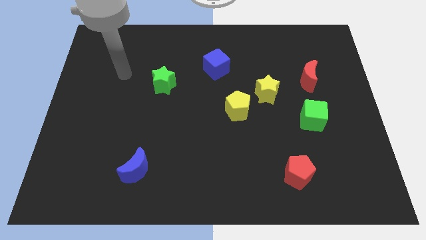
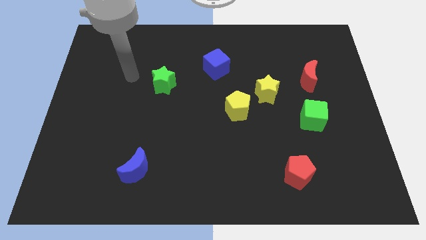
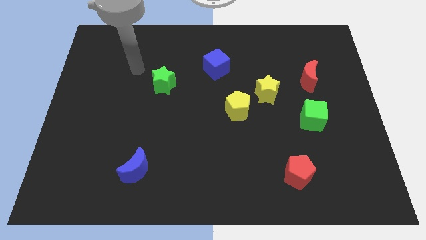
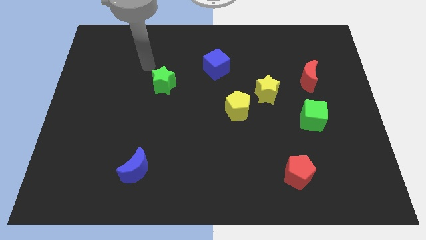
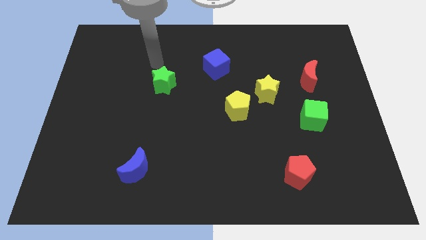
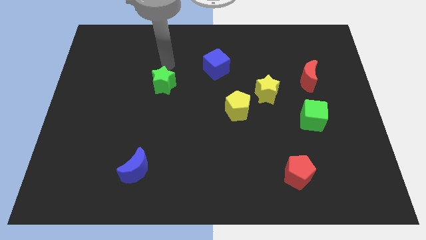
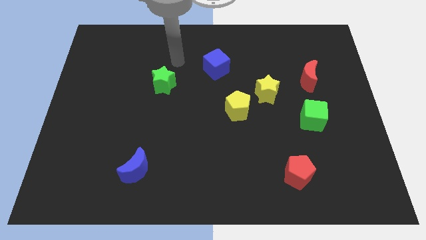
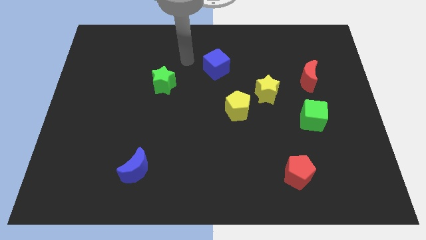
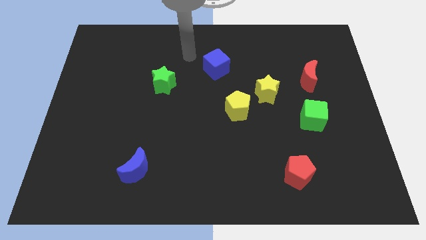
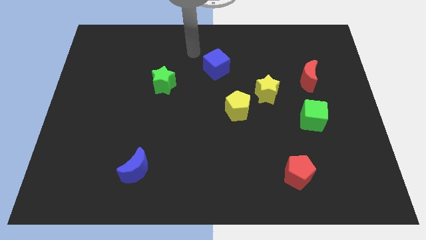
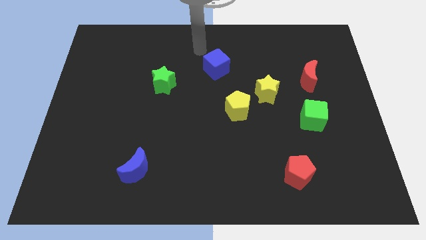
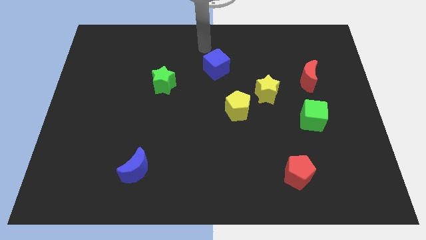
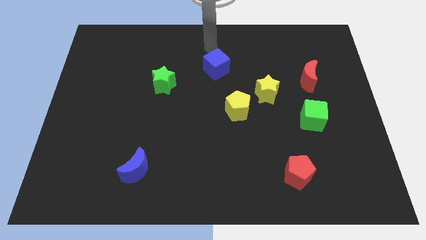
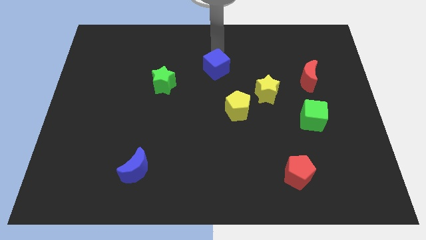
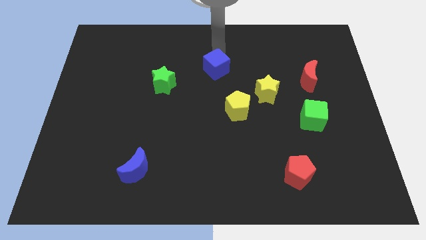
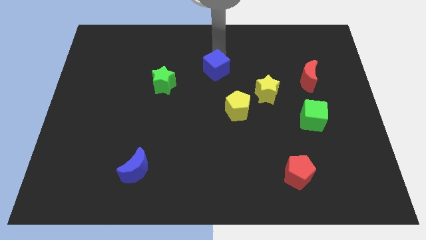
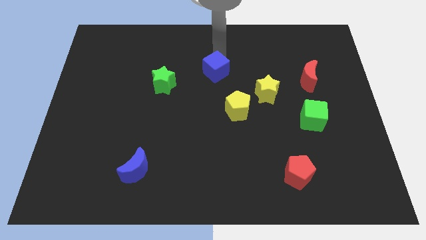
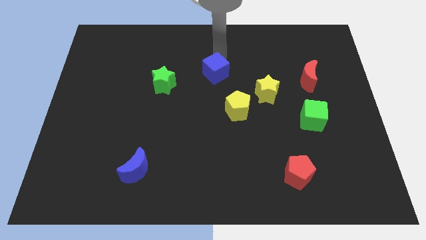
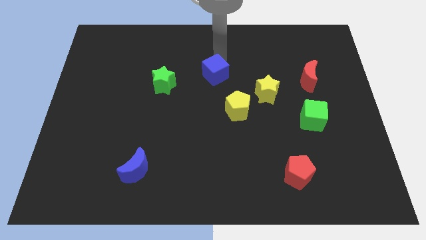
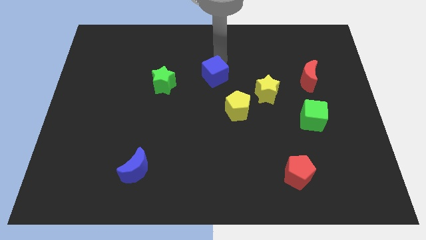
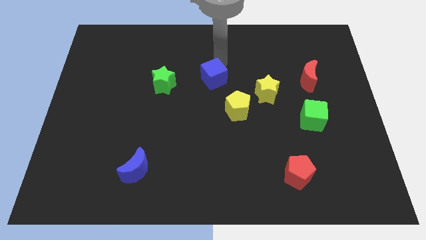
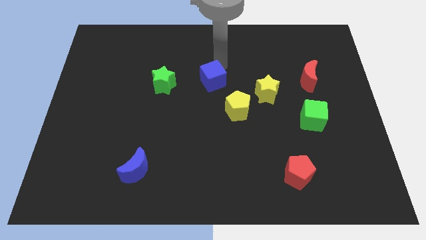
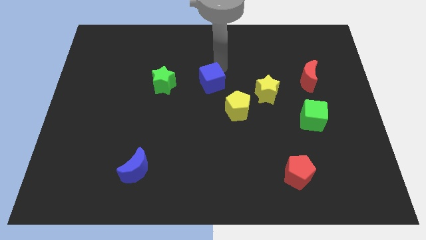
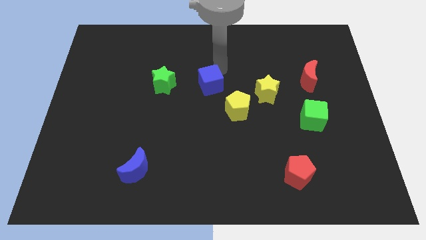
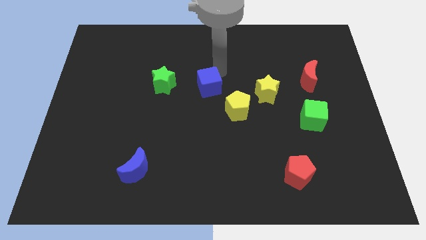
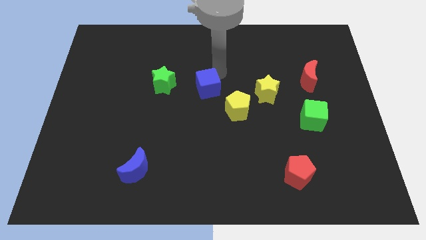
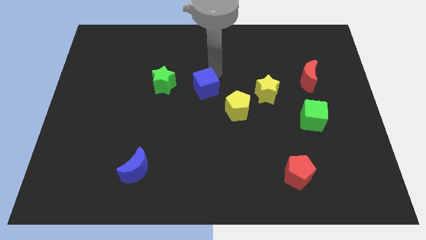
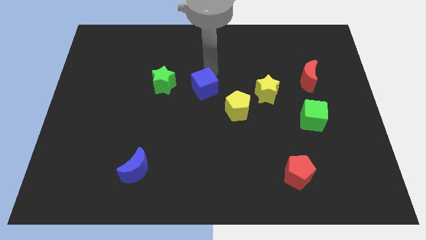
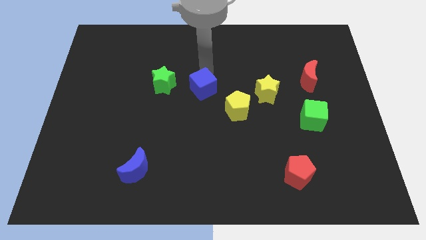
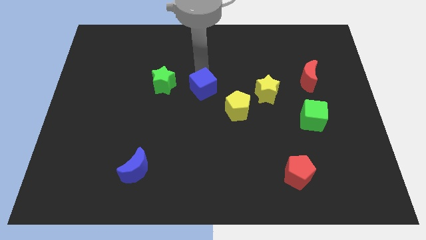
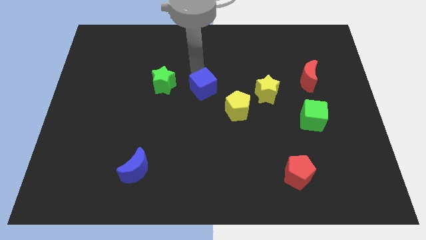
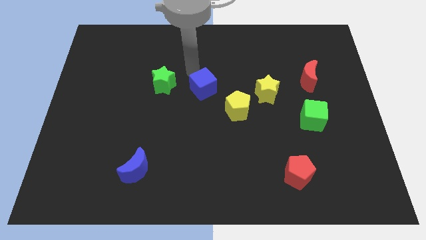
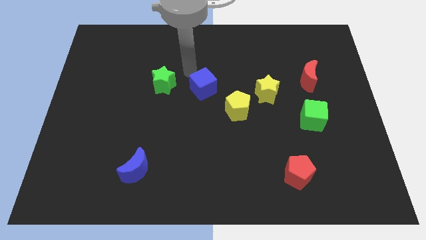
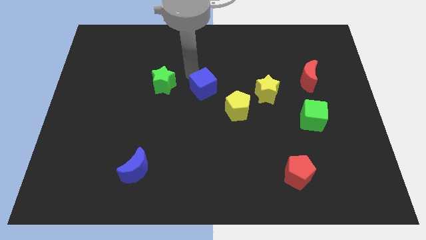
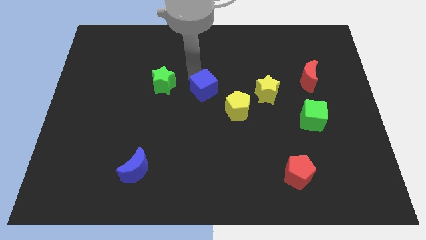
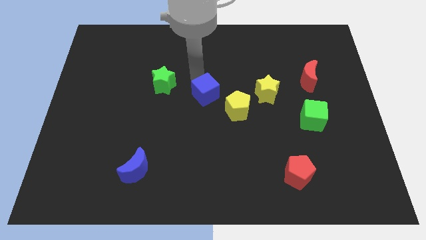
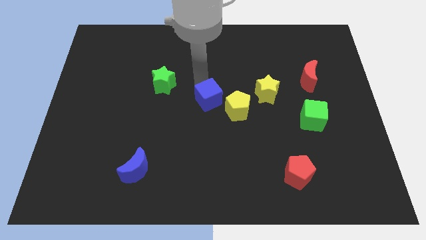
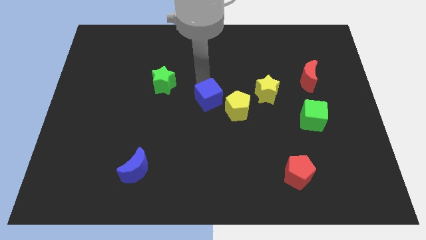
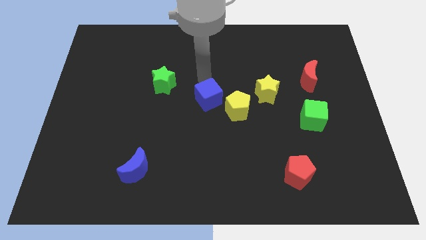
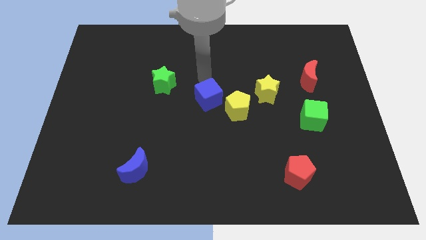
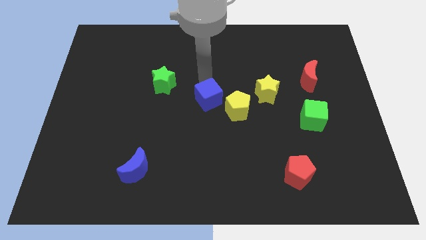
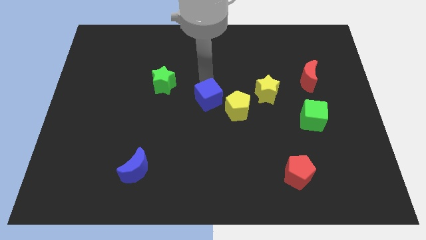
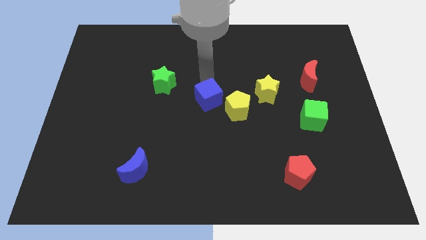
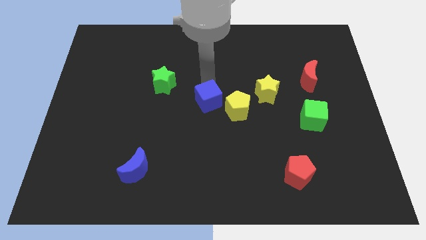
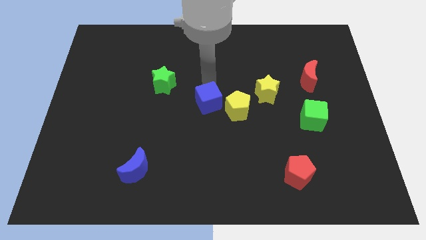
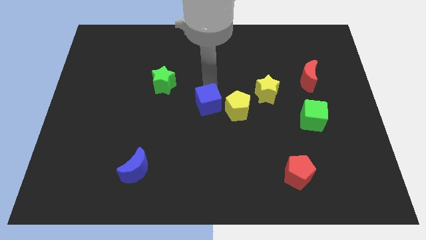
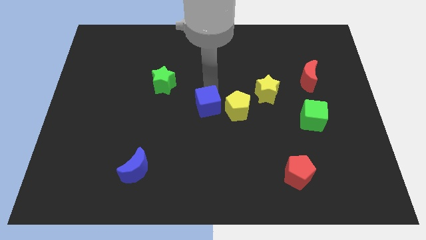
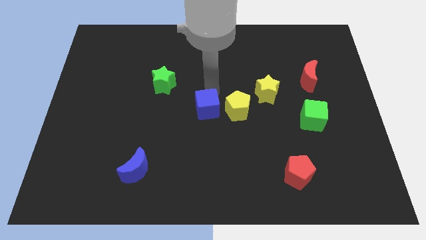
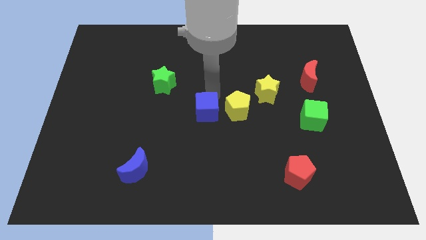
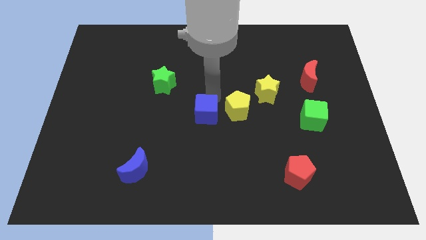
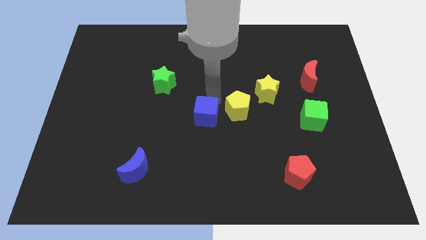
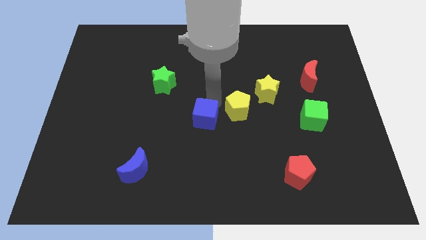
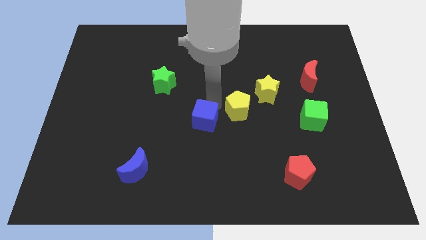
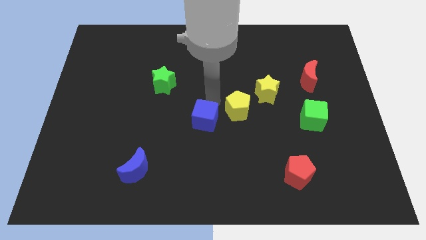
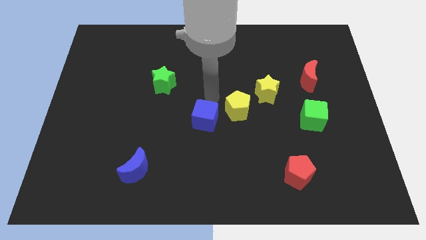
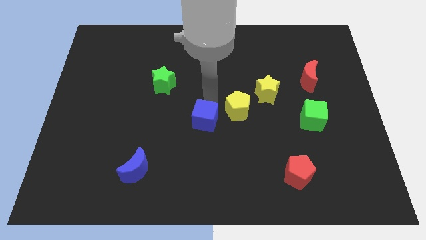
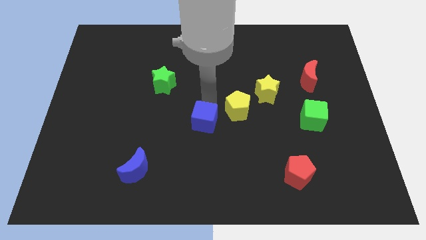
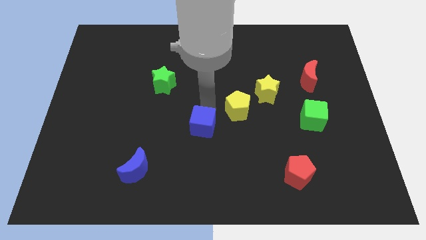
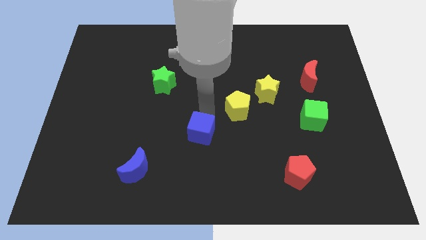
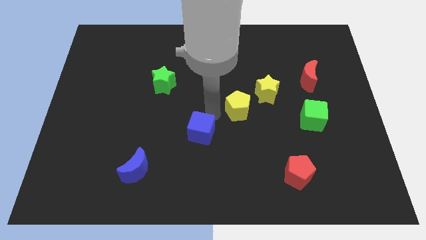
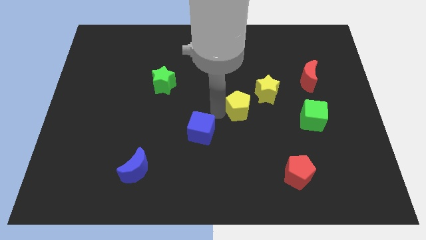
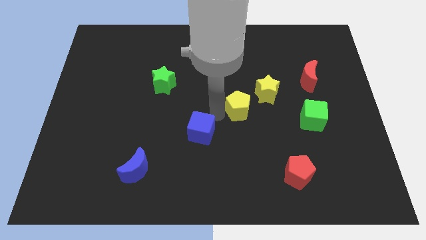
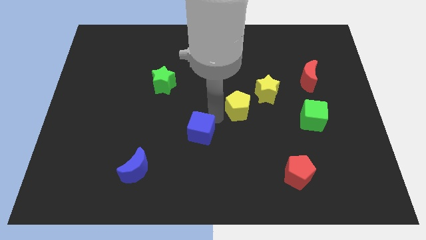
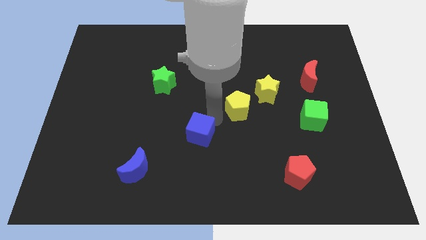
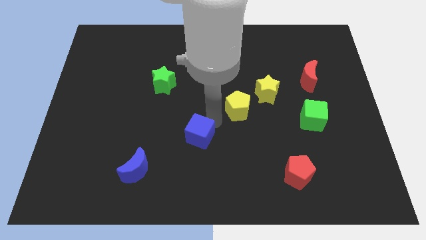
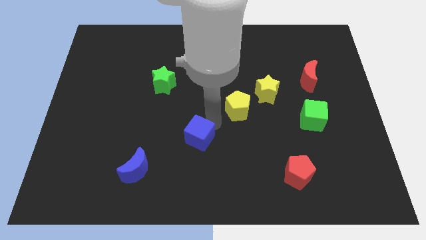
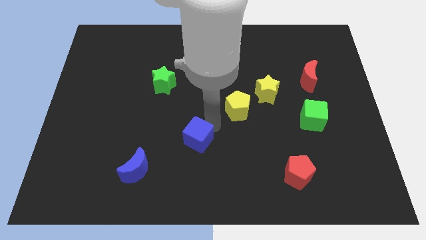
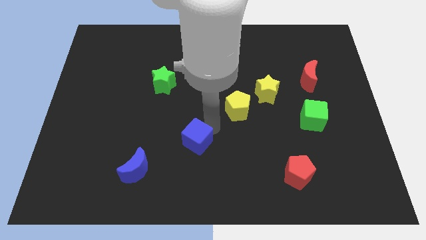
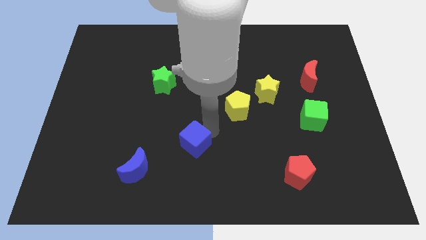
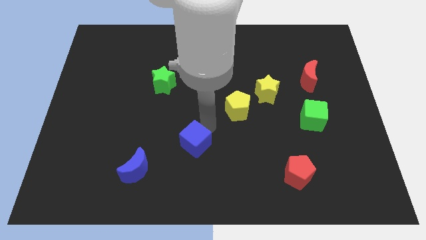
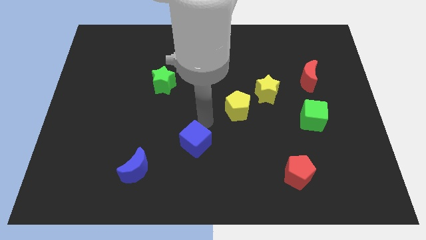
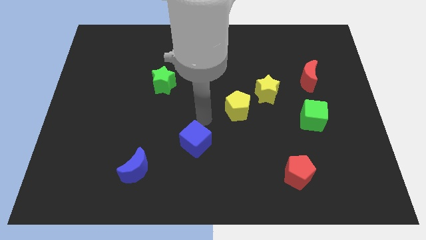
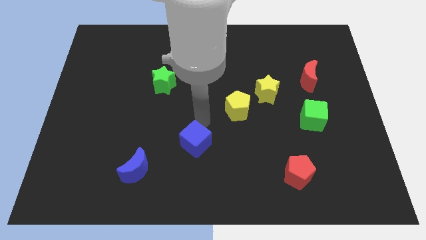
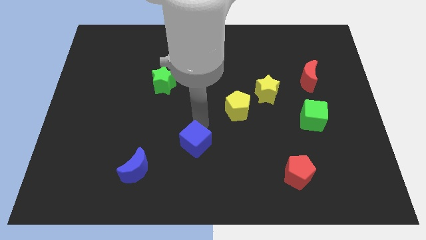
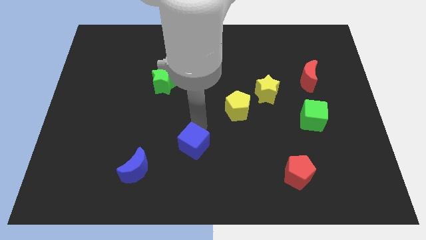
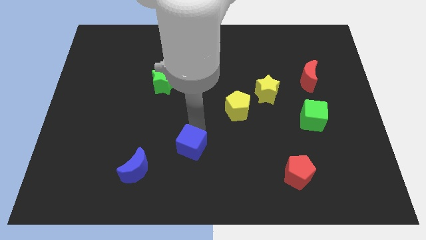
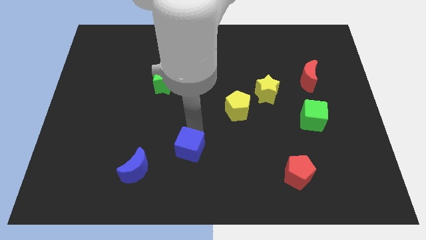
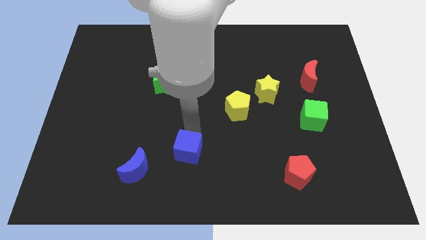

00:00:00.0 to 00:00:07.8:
push the blue cube to the right side of the blue moon
